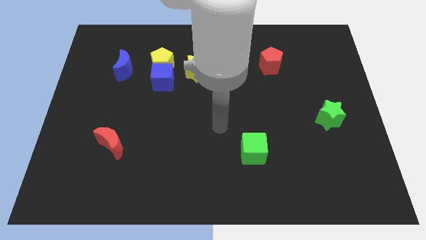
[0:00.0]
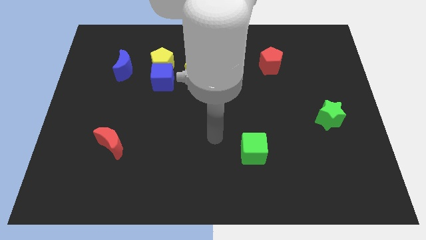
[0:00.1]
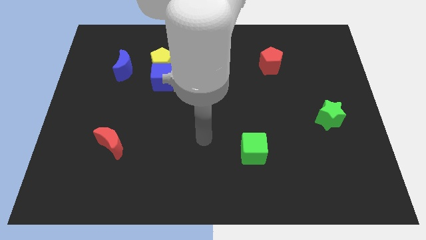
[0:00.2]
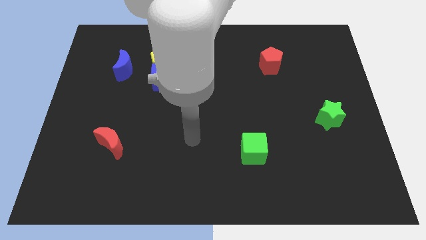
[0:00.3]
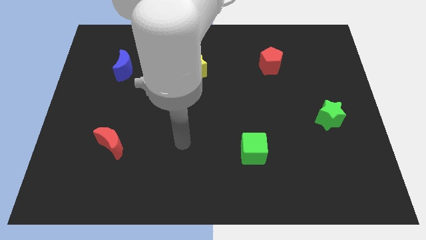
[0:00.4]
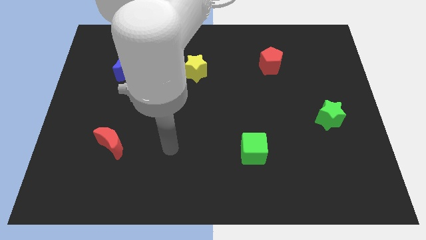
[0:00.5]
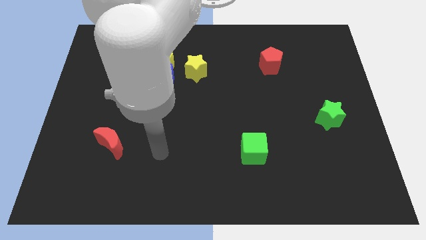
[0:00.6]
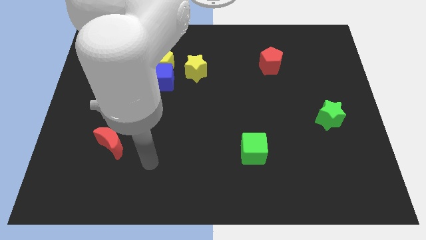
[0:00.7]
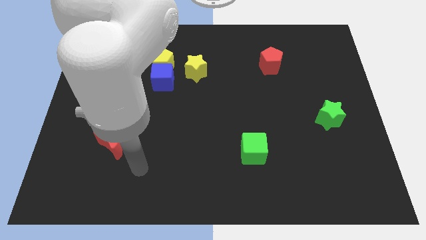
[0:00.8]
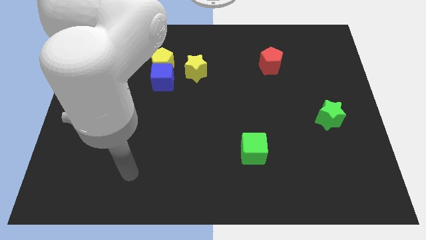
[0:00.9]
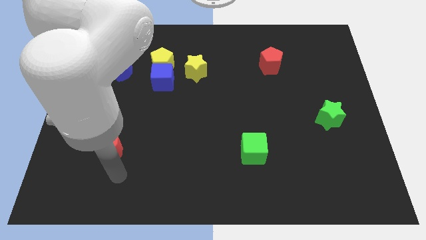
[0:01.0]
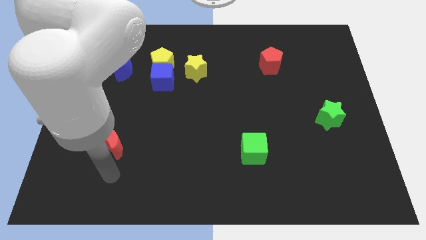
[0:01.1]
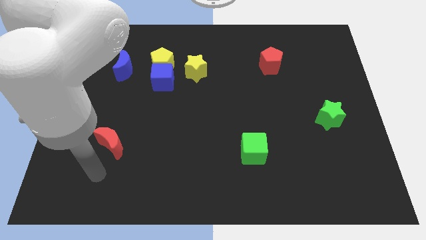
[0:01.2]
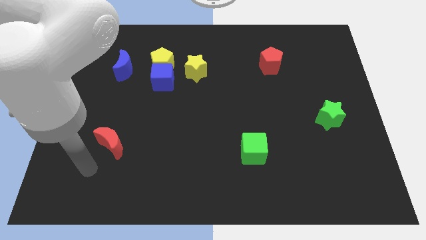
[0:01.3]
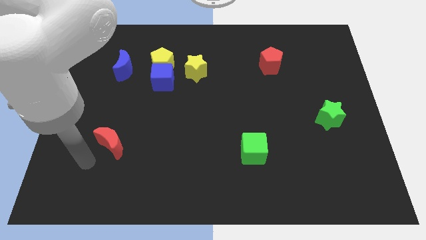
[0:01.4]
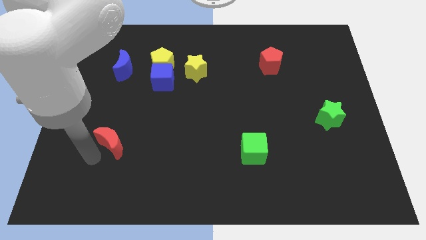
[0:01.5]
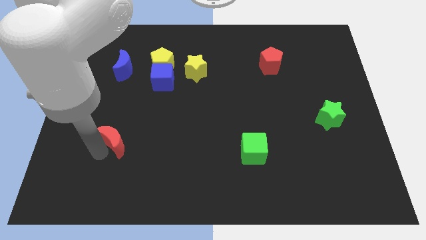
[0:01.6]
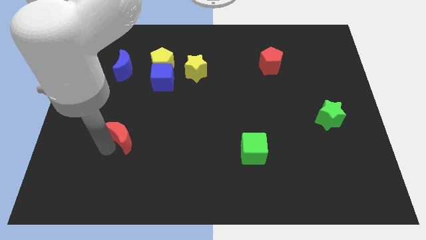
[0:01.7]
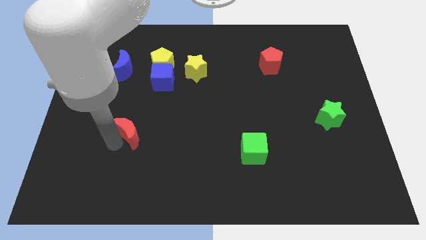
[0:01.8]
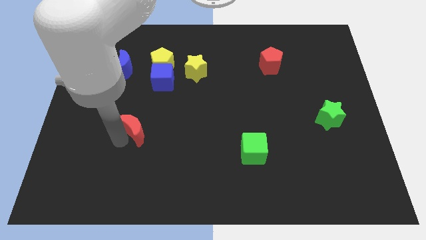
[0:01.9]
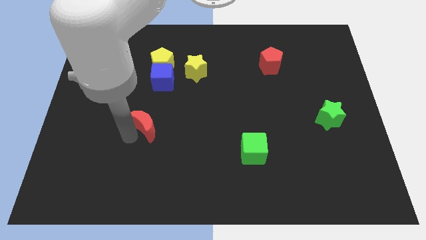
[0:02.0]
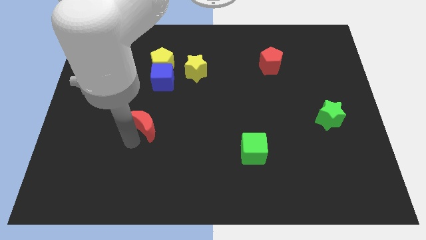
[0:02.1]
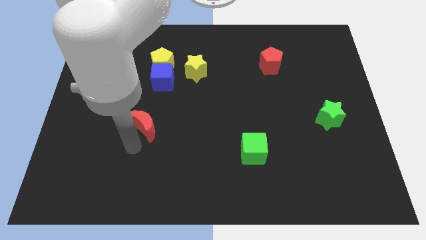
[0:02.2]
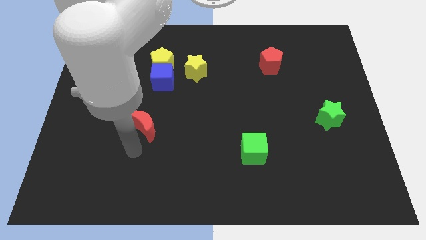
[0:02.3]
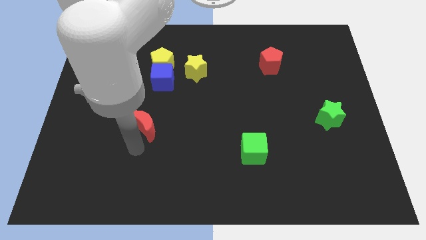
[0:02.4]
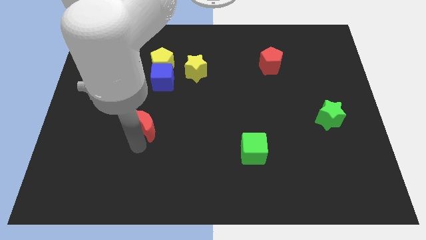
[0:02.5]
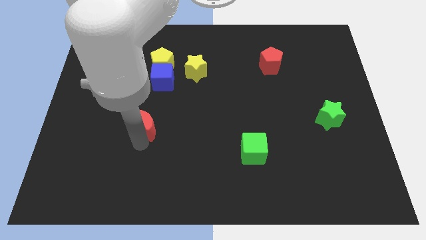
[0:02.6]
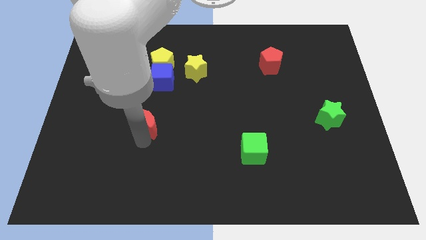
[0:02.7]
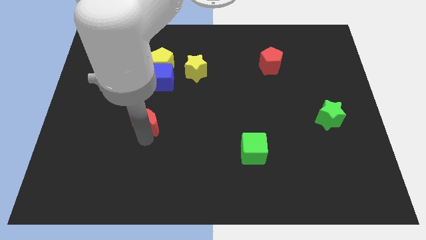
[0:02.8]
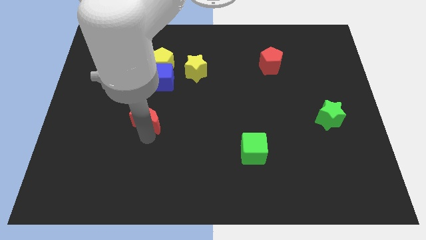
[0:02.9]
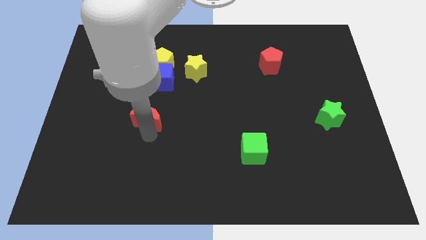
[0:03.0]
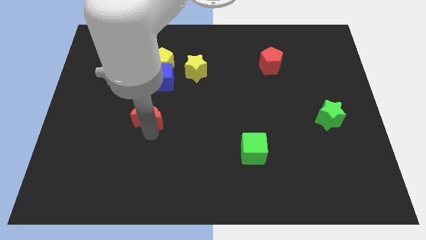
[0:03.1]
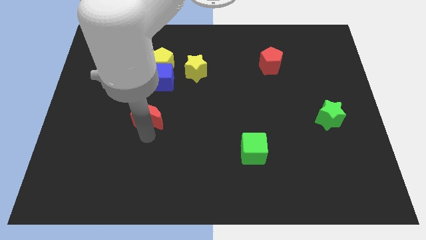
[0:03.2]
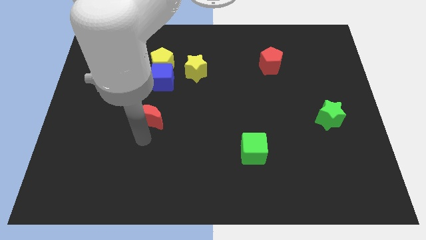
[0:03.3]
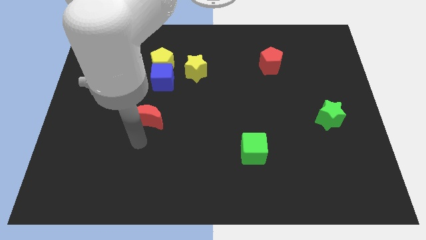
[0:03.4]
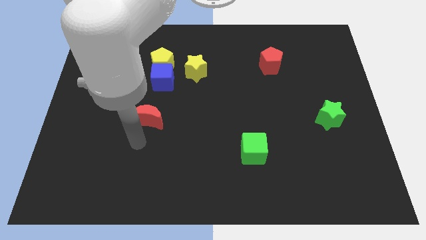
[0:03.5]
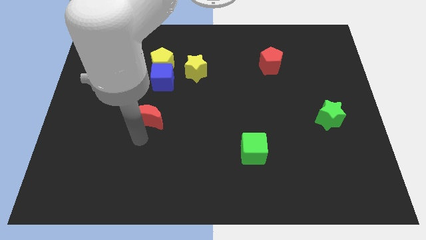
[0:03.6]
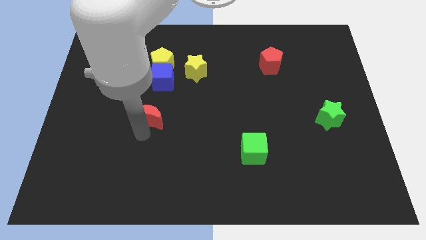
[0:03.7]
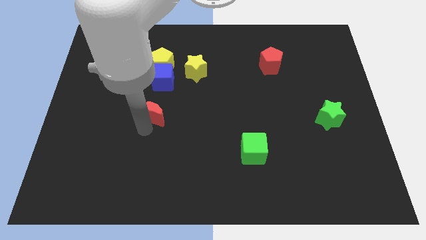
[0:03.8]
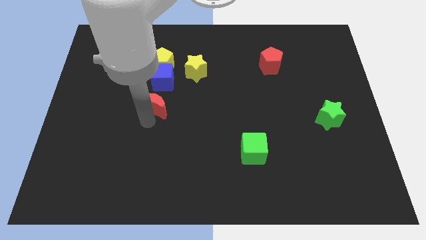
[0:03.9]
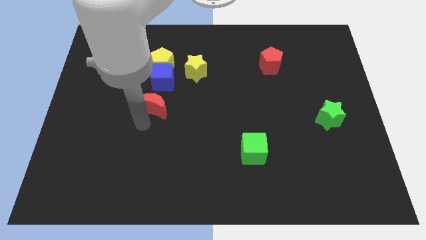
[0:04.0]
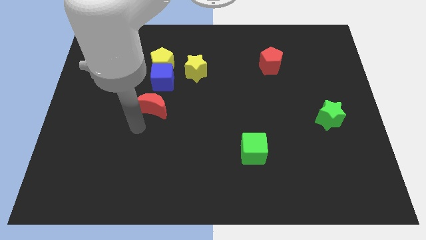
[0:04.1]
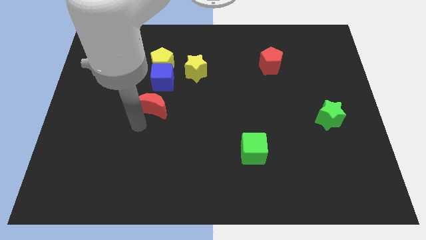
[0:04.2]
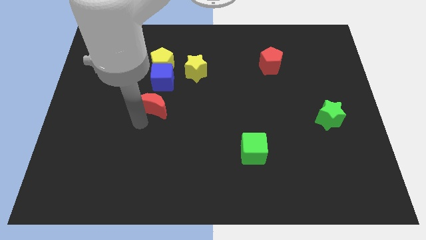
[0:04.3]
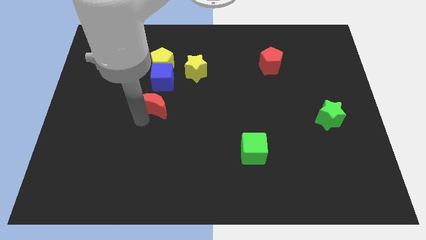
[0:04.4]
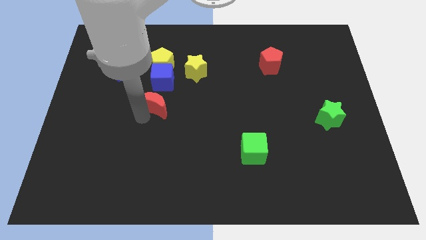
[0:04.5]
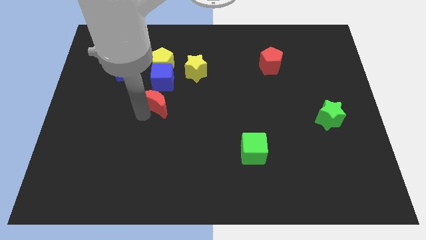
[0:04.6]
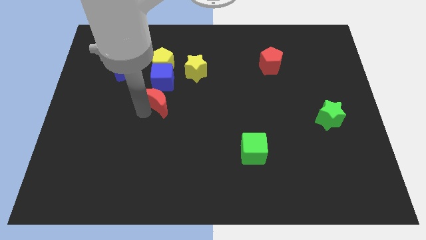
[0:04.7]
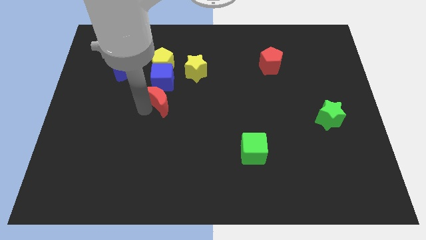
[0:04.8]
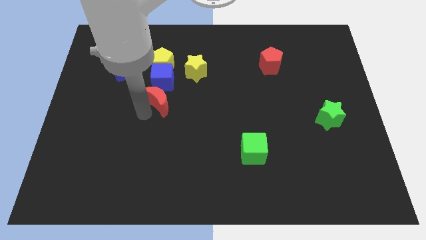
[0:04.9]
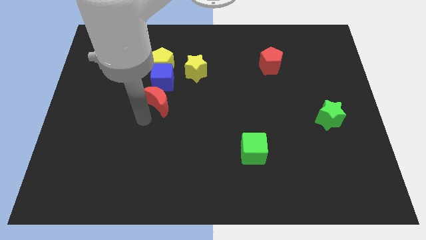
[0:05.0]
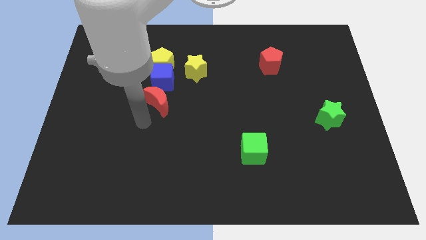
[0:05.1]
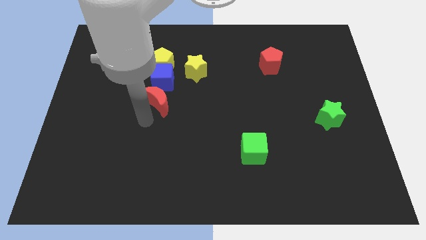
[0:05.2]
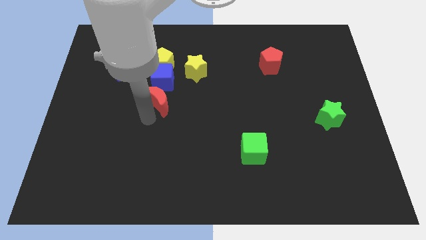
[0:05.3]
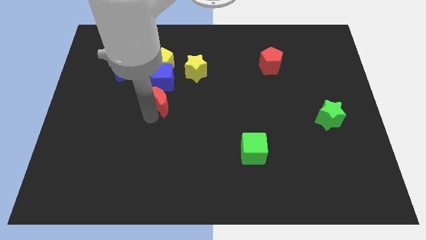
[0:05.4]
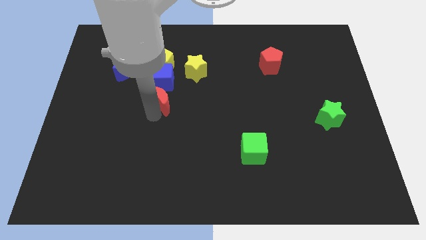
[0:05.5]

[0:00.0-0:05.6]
move the red moon diagonally down and to the left of the yellow star

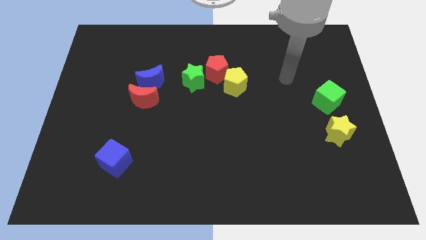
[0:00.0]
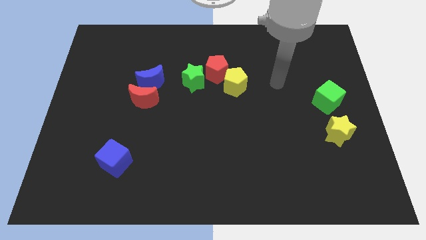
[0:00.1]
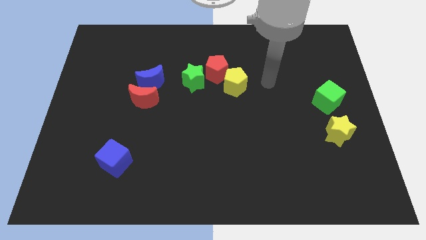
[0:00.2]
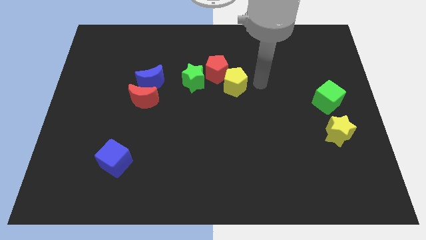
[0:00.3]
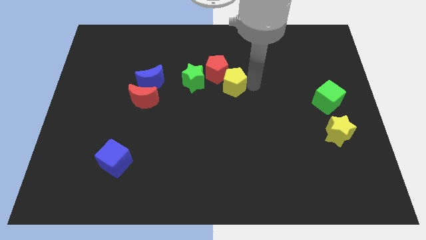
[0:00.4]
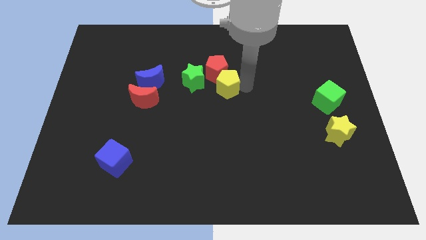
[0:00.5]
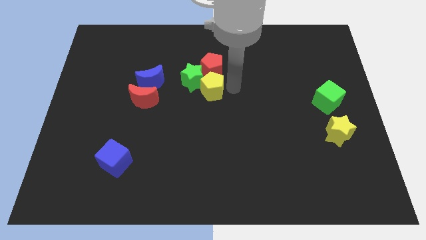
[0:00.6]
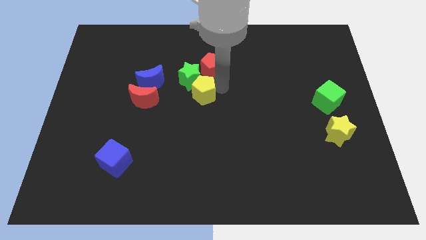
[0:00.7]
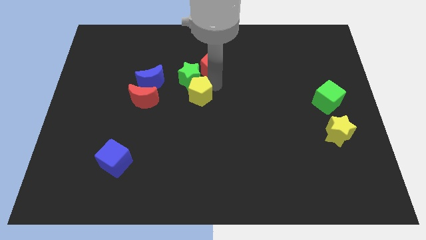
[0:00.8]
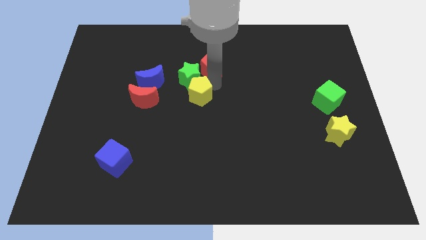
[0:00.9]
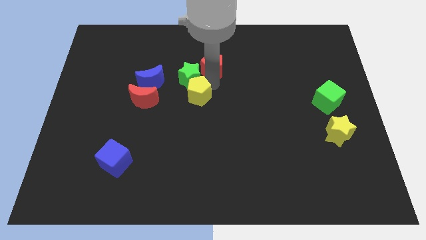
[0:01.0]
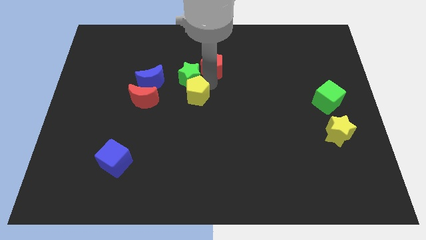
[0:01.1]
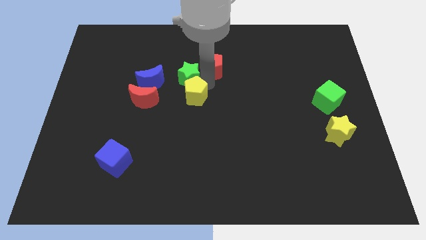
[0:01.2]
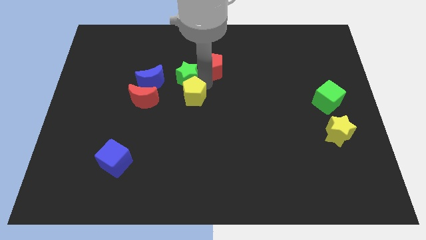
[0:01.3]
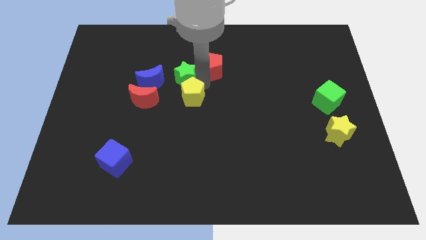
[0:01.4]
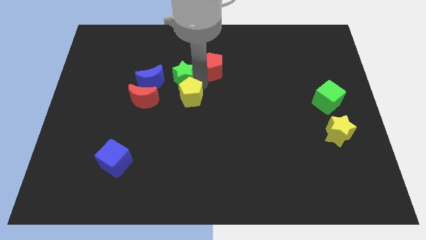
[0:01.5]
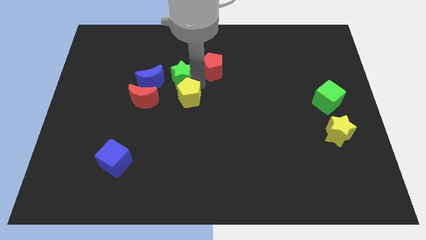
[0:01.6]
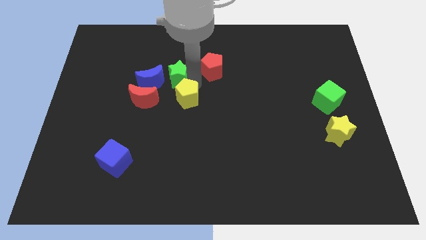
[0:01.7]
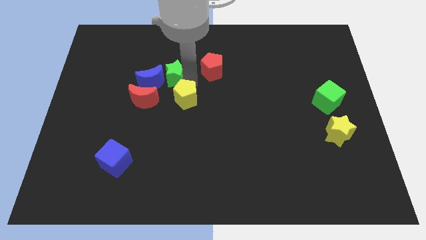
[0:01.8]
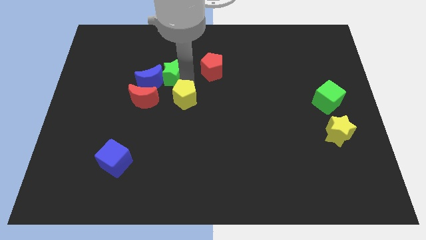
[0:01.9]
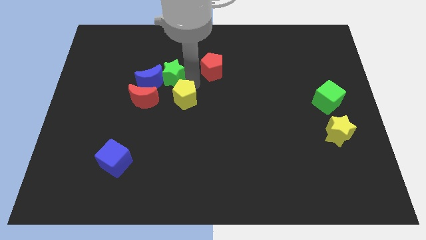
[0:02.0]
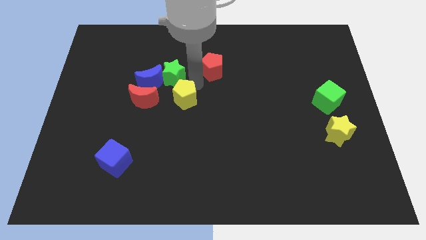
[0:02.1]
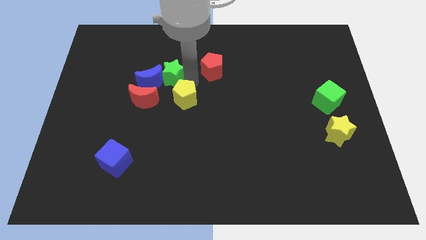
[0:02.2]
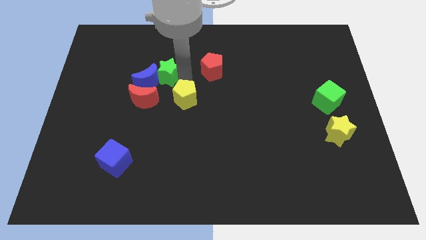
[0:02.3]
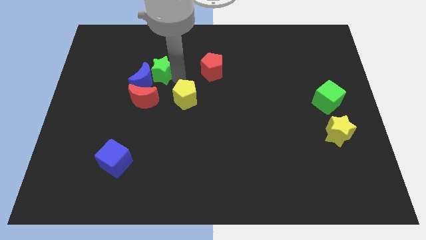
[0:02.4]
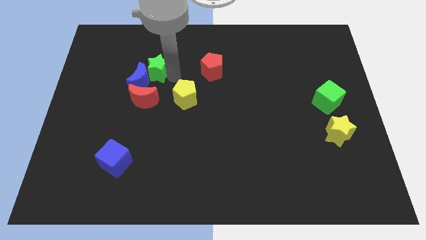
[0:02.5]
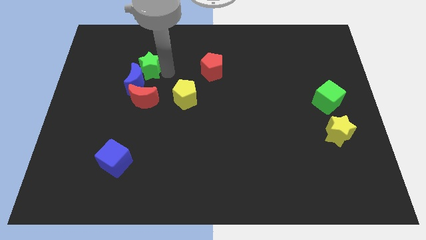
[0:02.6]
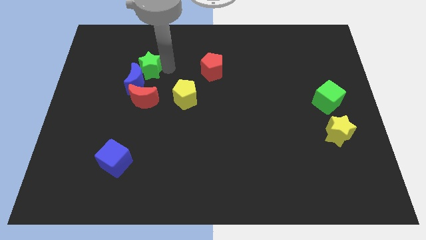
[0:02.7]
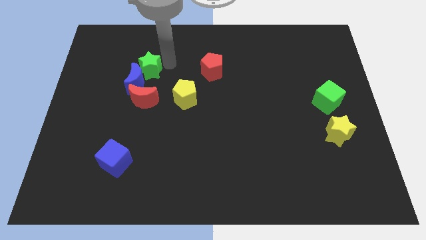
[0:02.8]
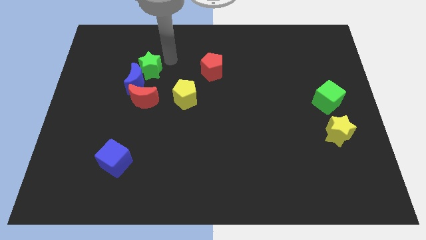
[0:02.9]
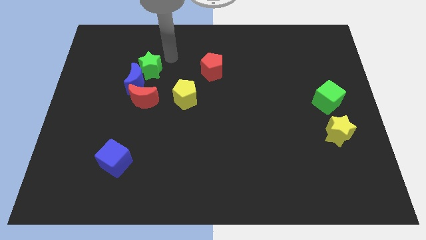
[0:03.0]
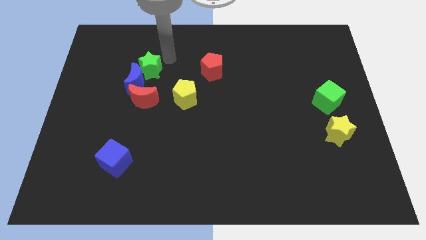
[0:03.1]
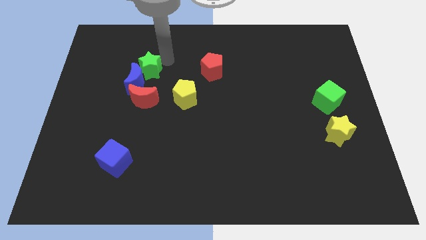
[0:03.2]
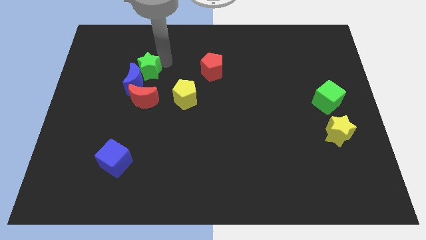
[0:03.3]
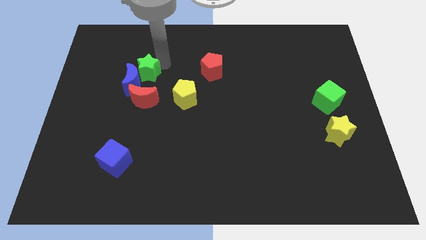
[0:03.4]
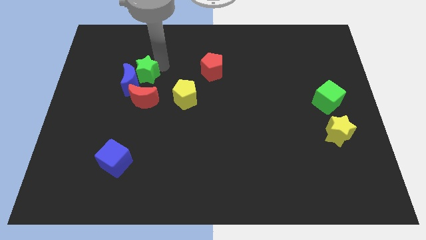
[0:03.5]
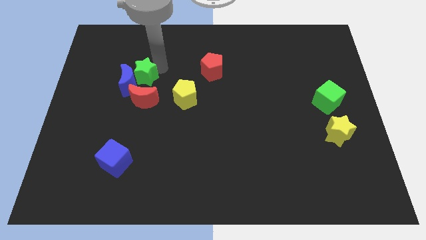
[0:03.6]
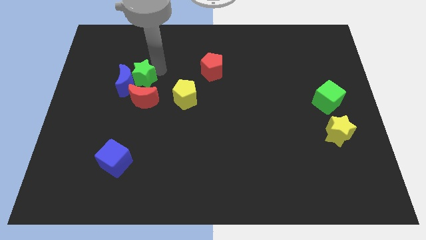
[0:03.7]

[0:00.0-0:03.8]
move the green star diagonally up and to the left of the red moon
